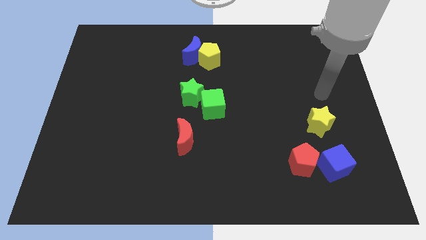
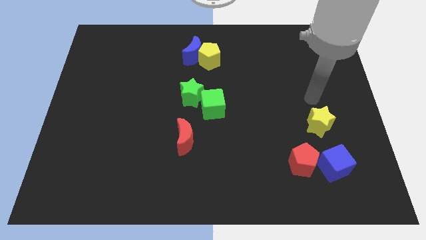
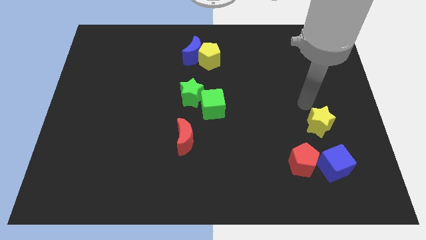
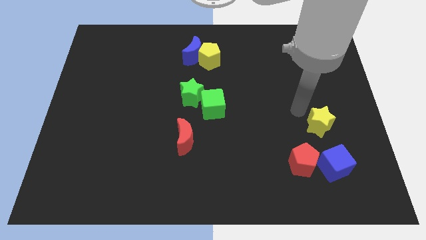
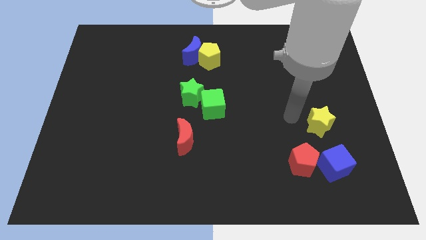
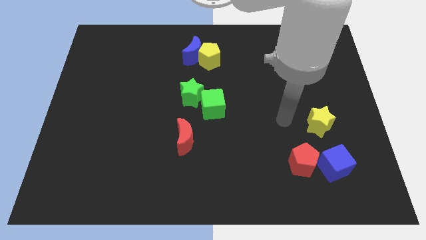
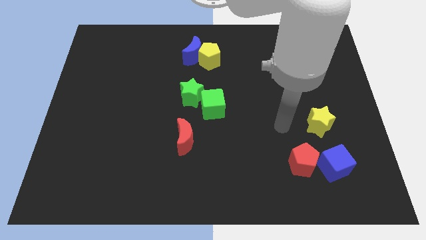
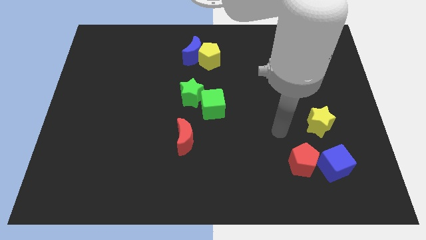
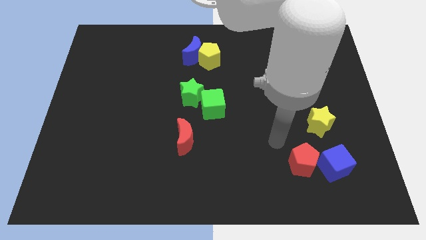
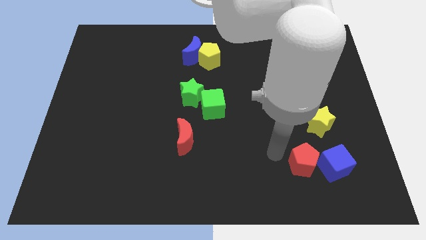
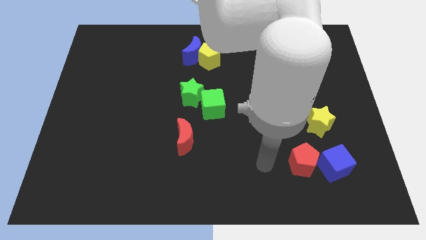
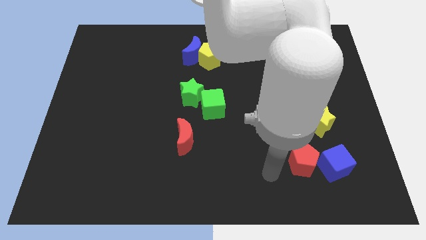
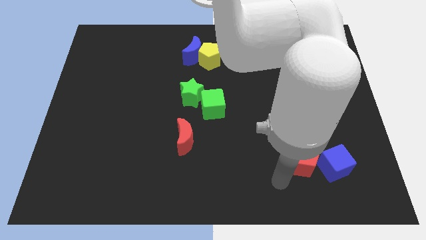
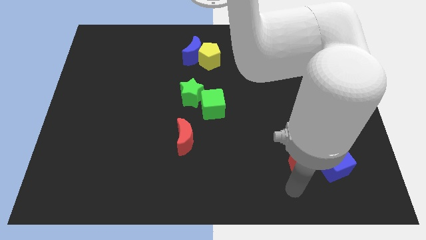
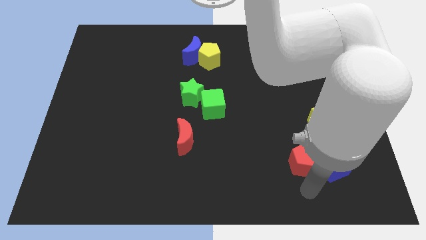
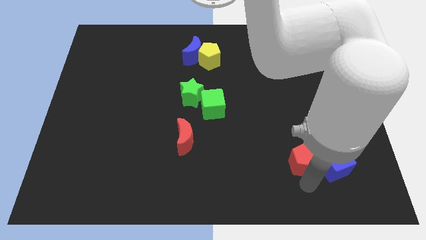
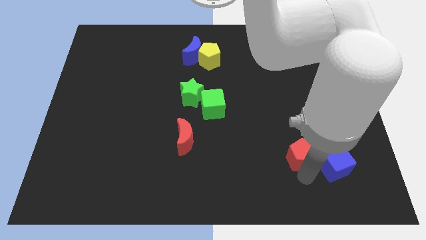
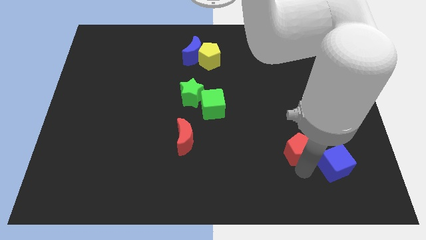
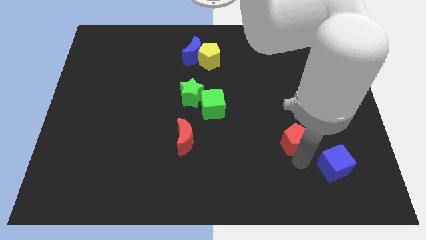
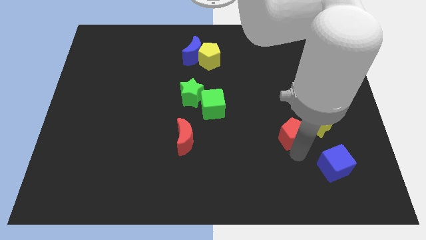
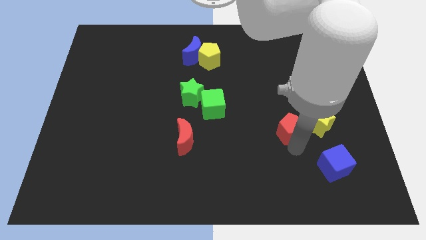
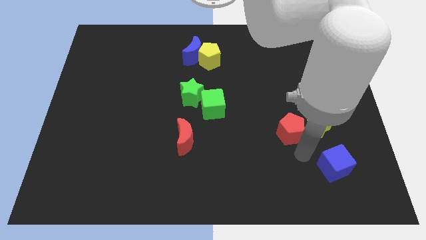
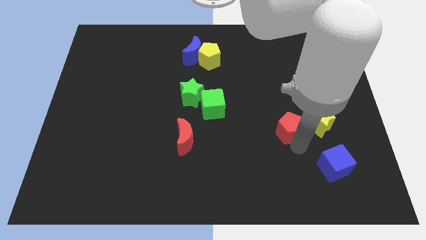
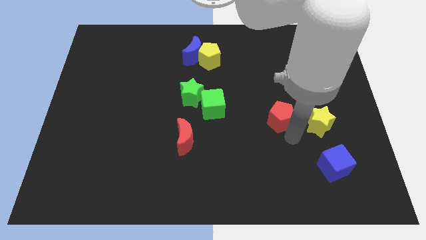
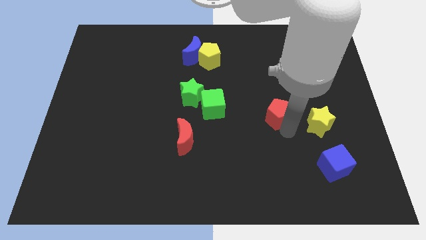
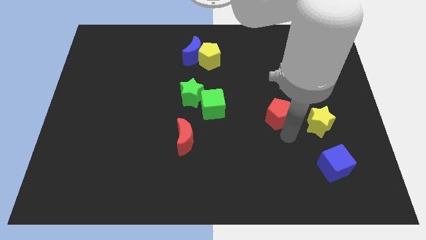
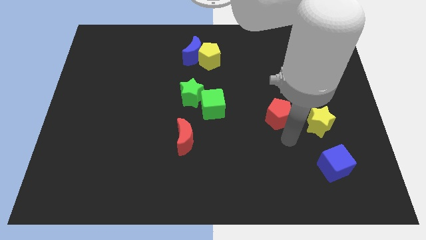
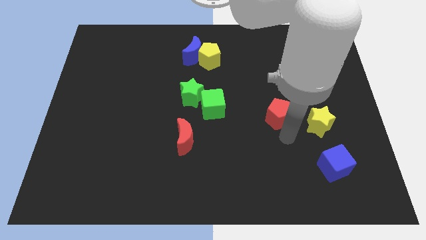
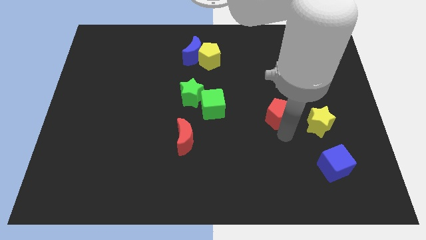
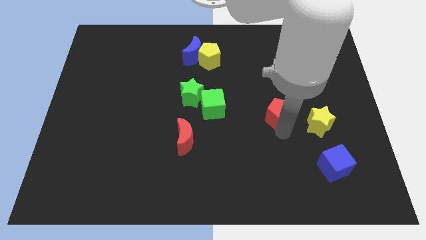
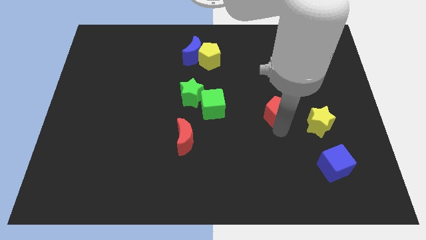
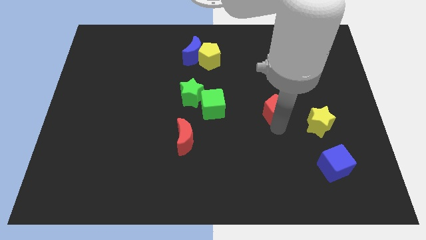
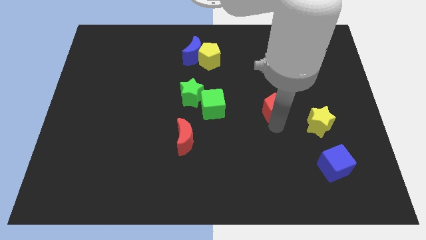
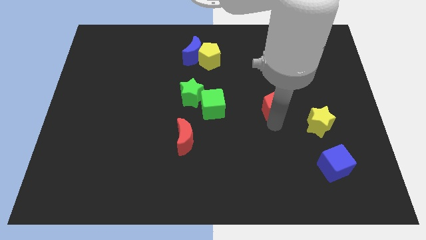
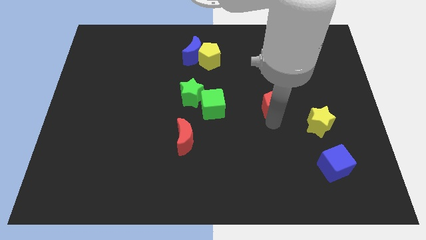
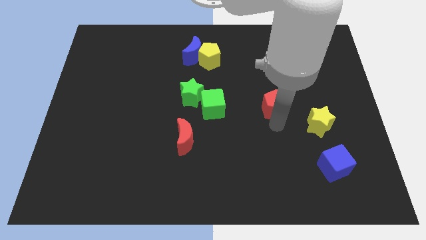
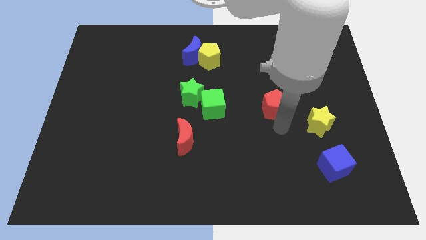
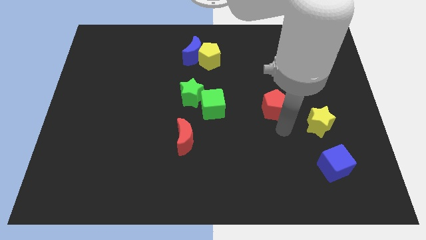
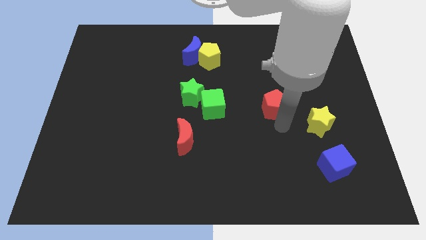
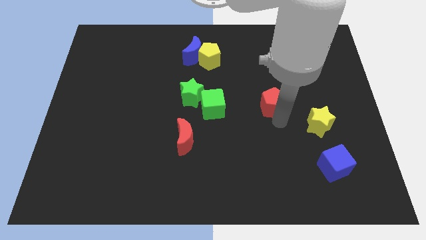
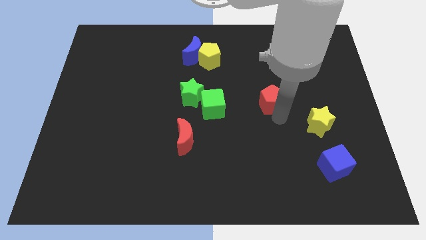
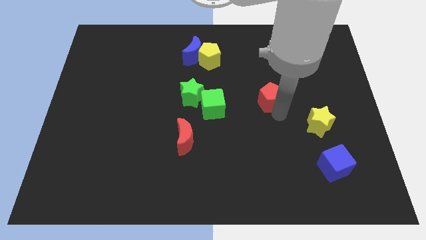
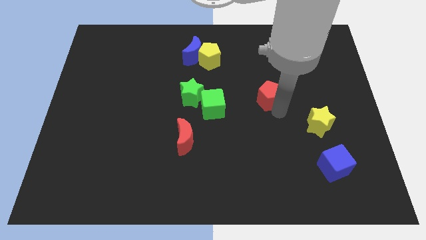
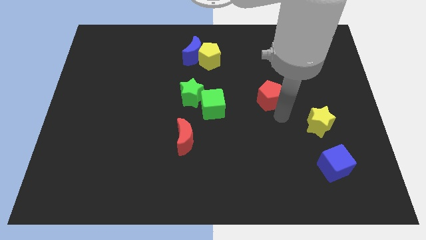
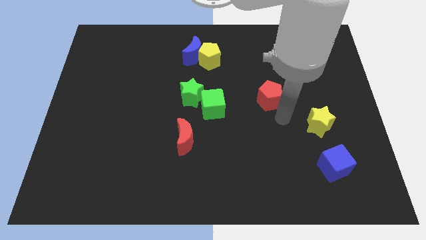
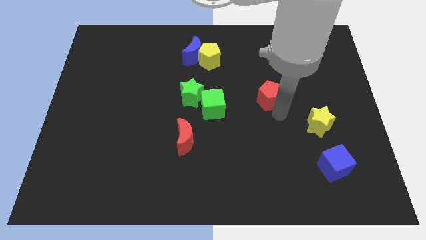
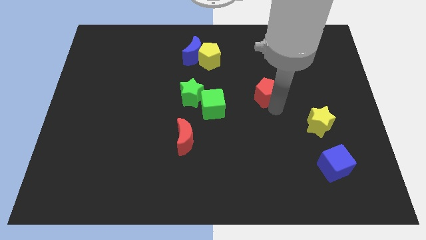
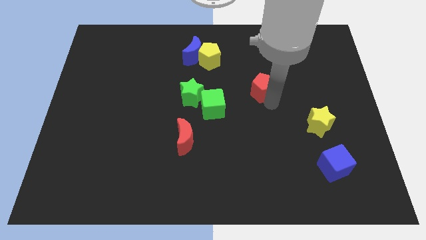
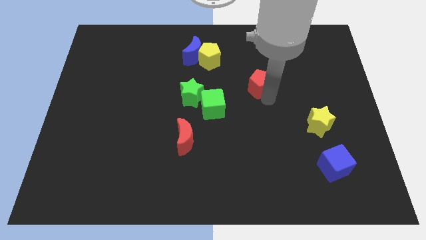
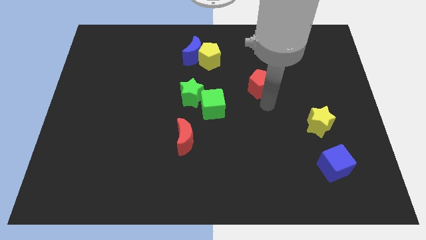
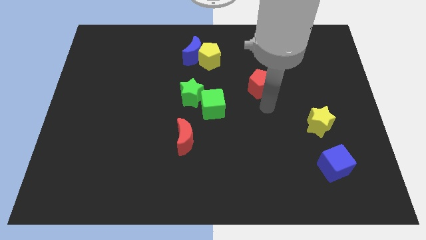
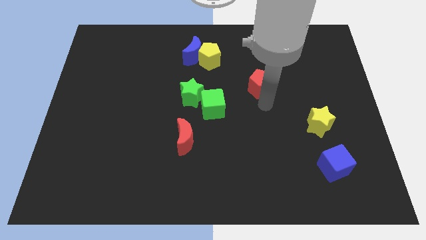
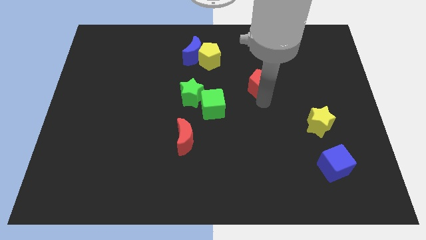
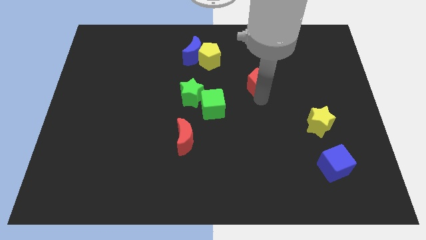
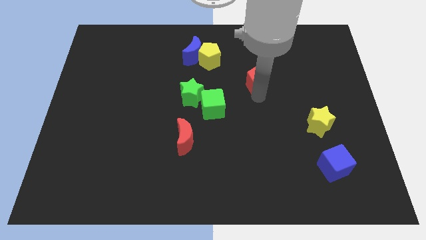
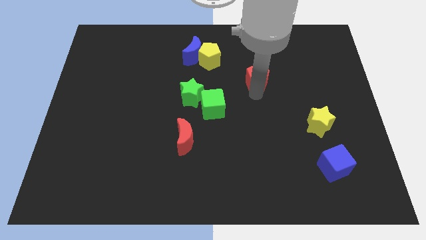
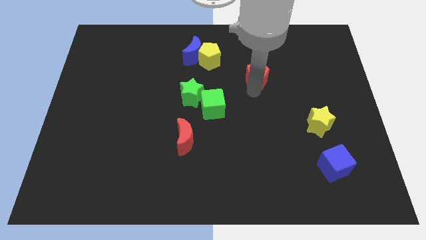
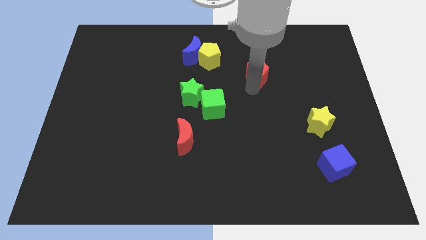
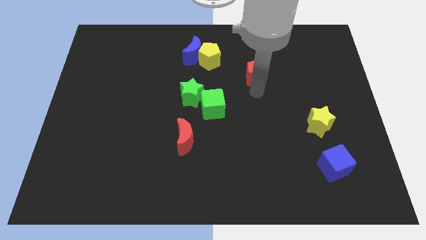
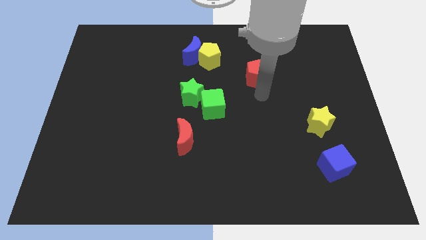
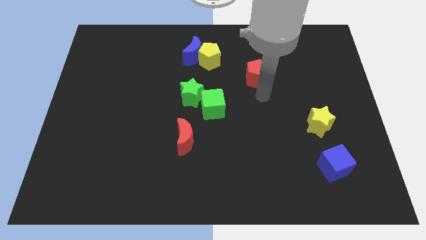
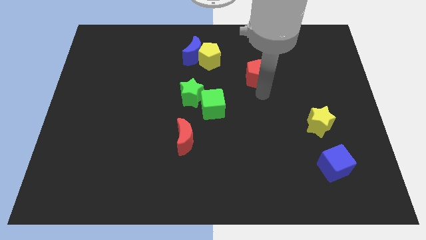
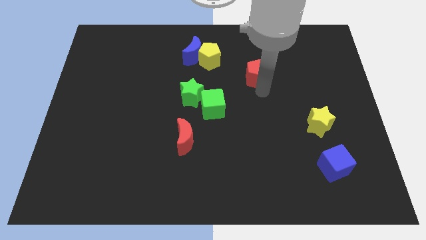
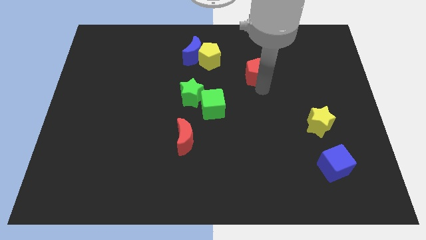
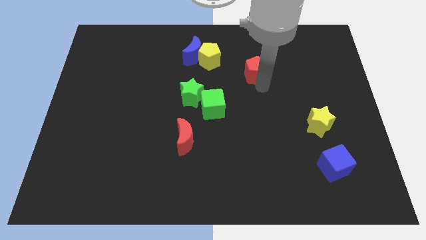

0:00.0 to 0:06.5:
push the red pentagon to the right of the yellow pentagon

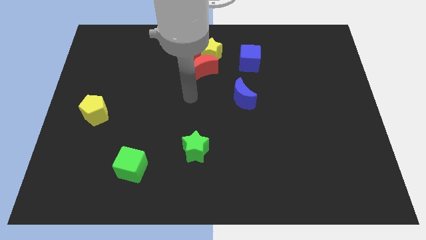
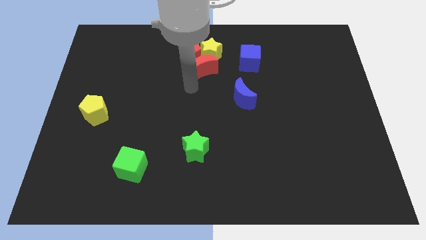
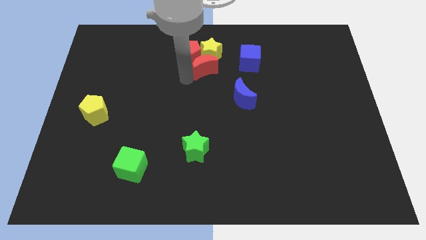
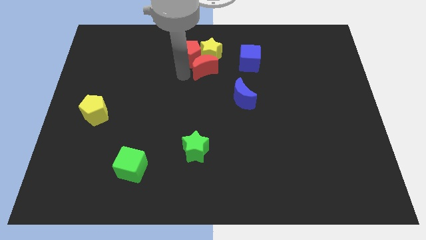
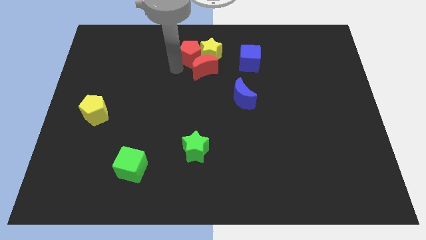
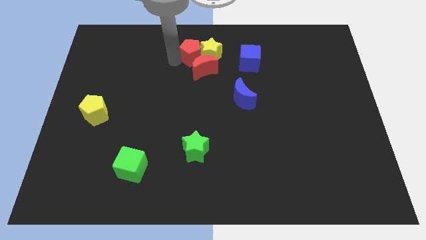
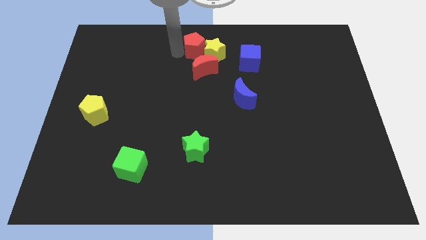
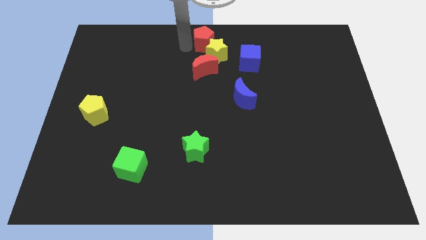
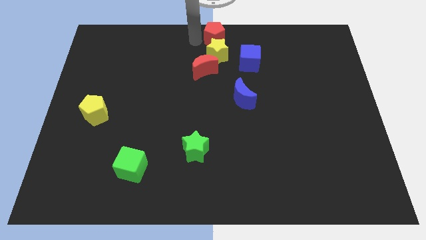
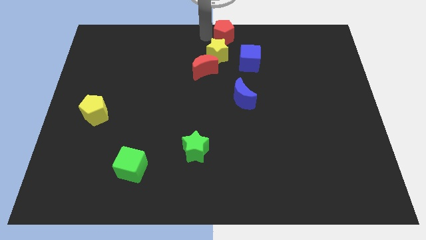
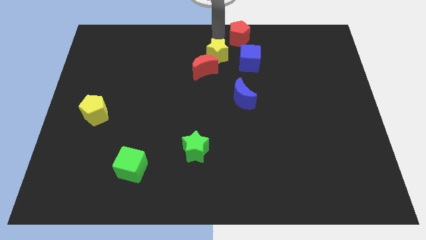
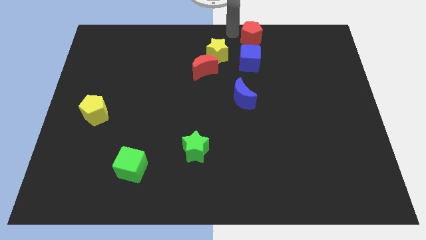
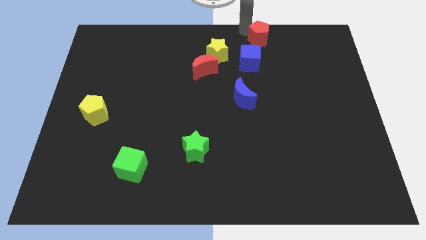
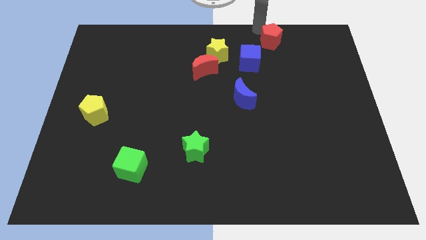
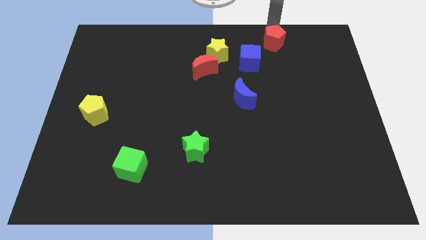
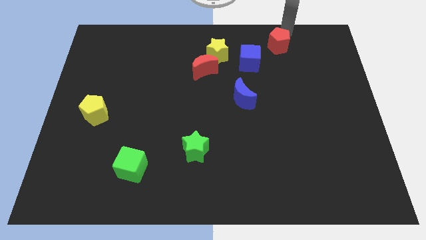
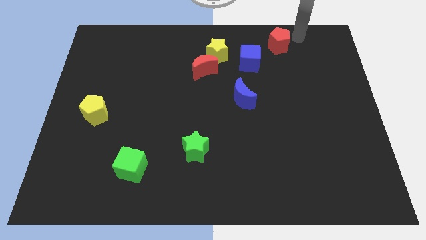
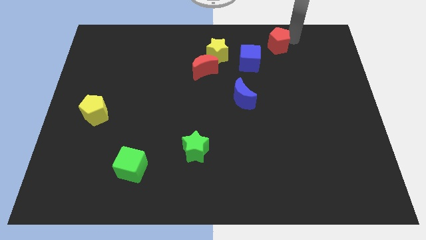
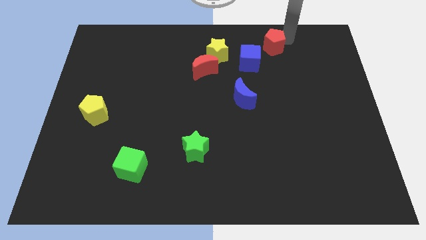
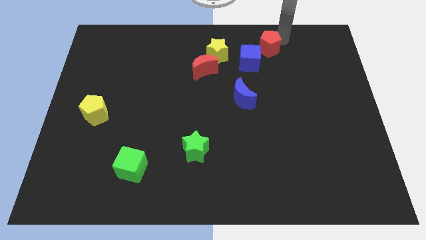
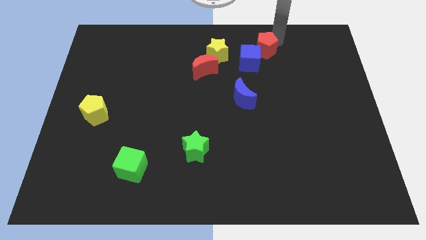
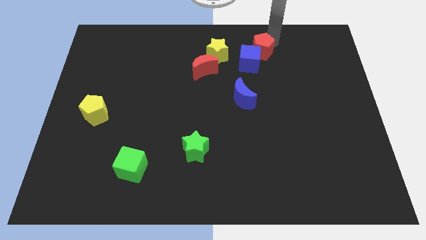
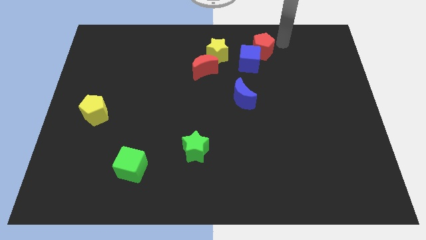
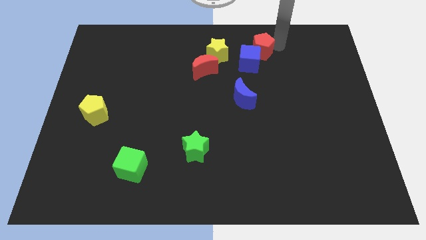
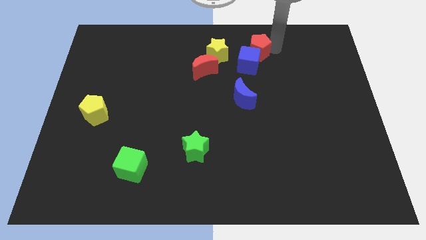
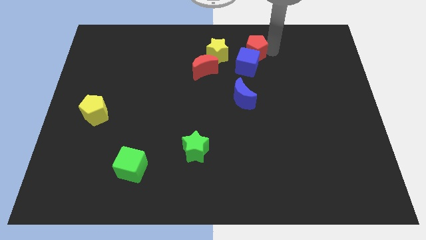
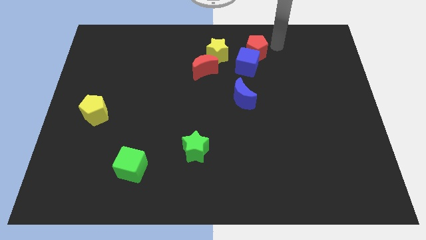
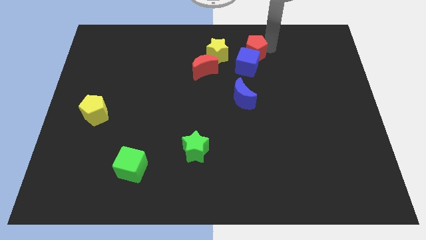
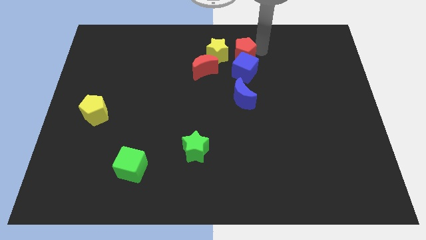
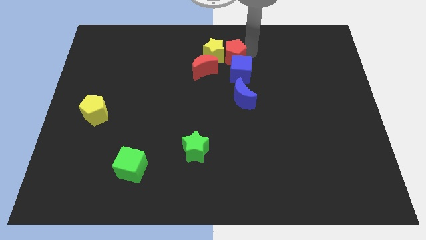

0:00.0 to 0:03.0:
push the red pentagon to the right of the red moon
